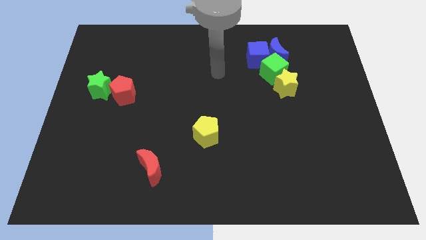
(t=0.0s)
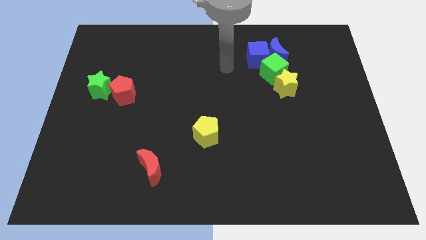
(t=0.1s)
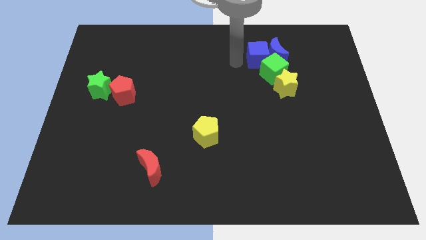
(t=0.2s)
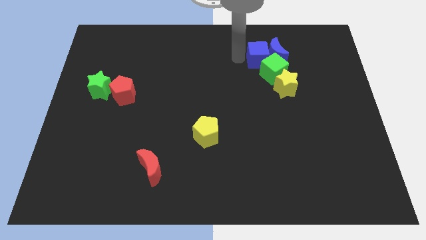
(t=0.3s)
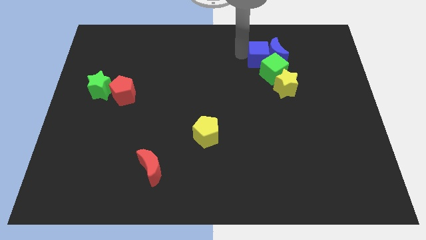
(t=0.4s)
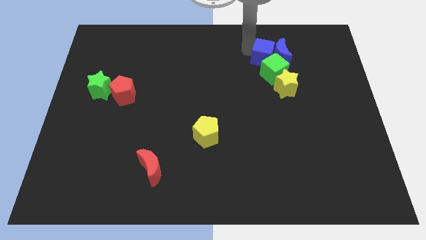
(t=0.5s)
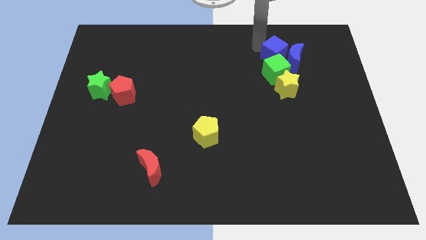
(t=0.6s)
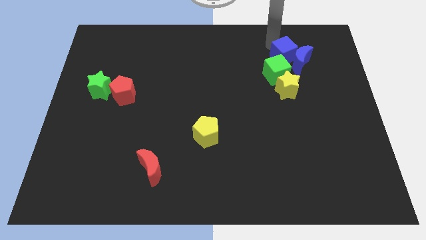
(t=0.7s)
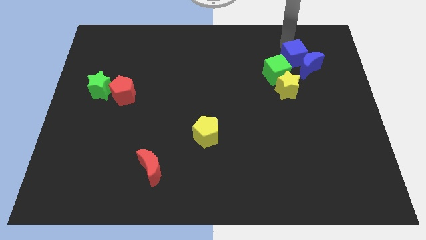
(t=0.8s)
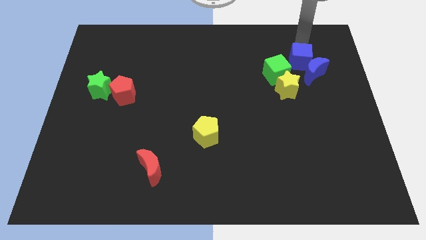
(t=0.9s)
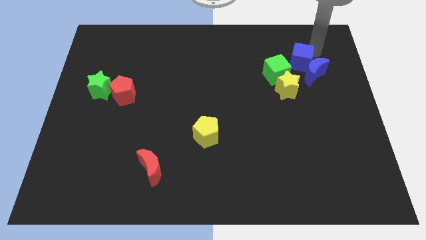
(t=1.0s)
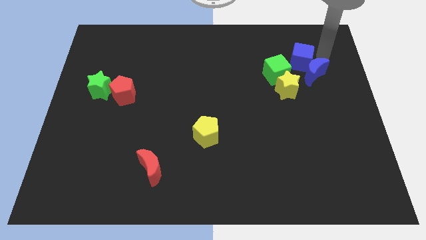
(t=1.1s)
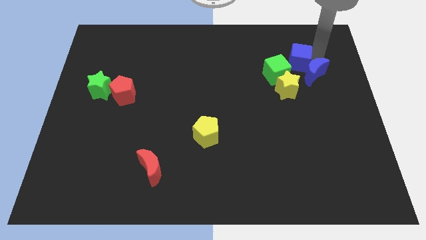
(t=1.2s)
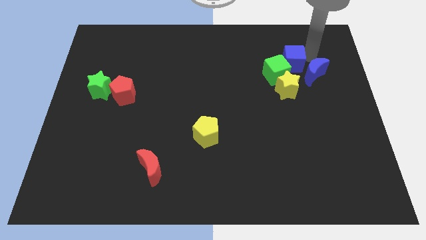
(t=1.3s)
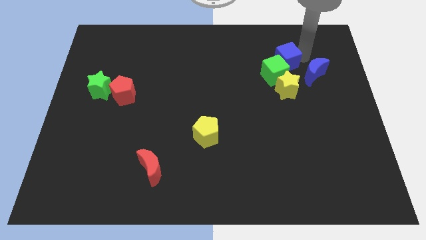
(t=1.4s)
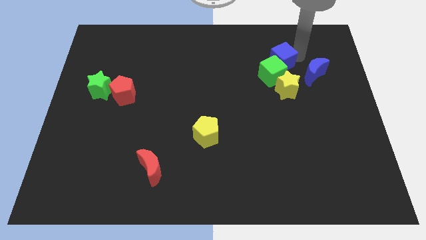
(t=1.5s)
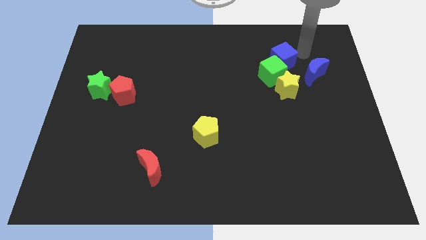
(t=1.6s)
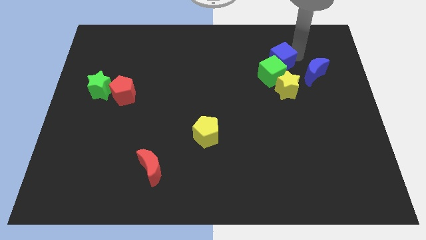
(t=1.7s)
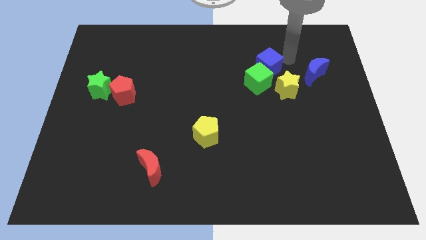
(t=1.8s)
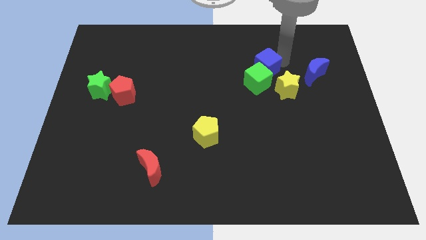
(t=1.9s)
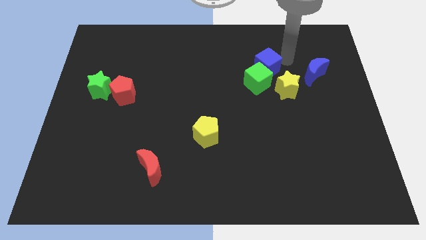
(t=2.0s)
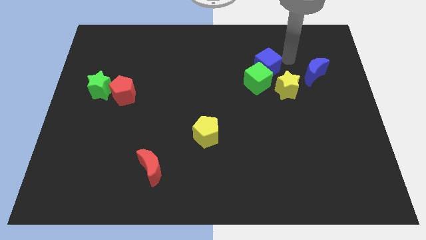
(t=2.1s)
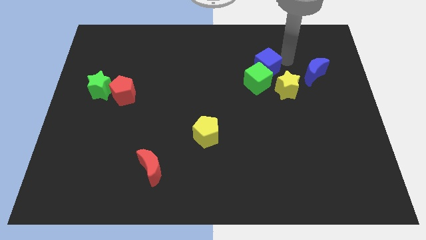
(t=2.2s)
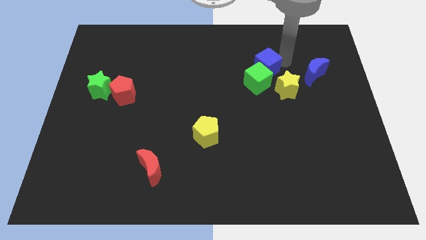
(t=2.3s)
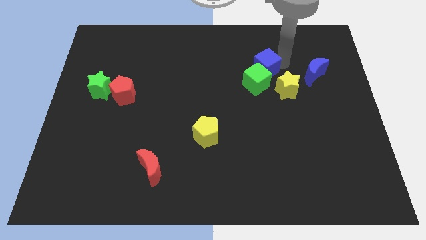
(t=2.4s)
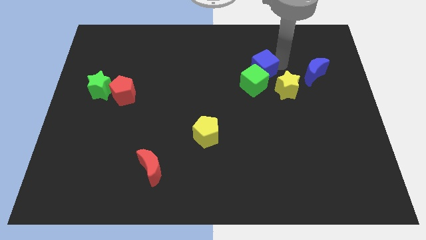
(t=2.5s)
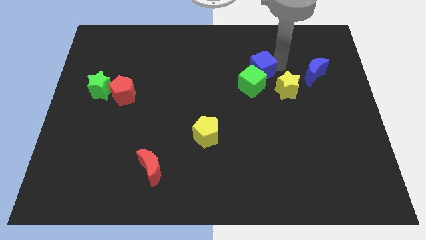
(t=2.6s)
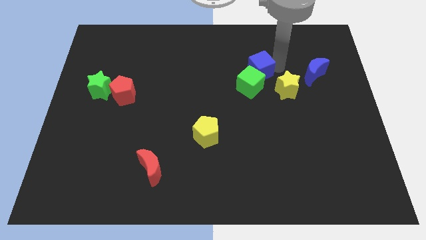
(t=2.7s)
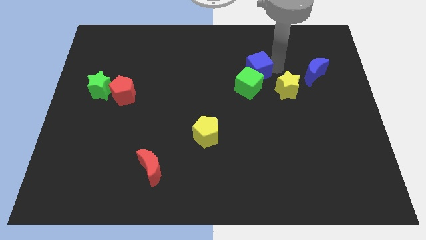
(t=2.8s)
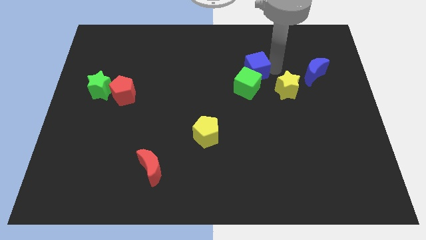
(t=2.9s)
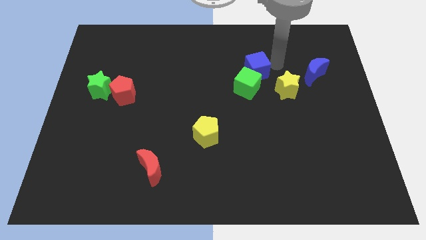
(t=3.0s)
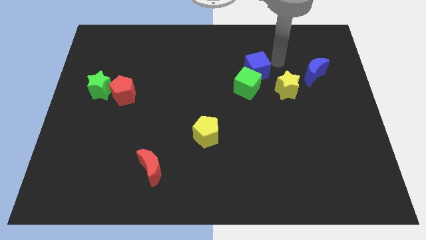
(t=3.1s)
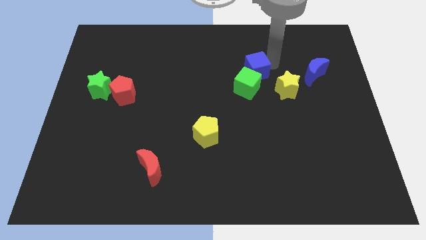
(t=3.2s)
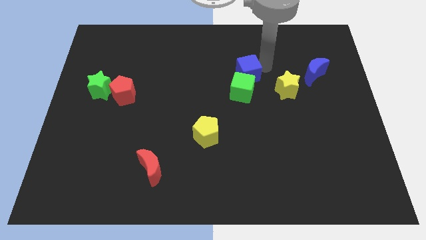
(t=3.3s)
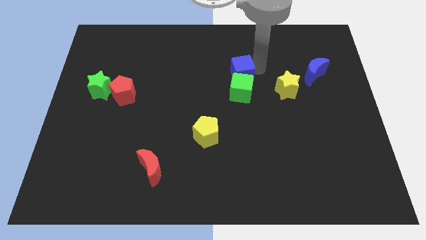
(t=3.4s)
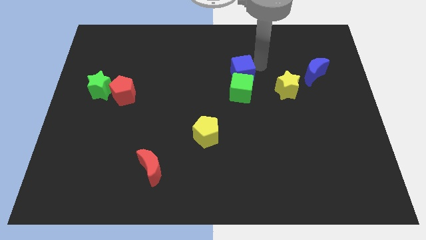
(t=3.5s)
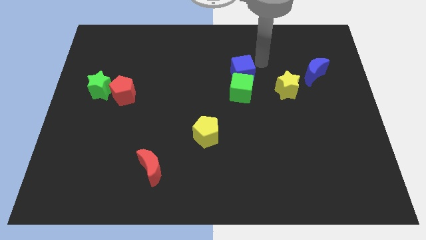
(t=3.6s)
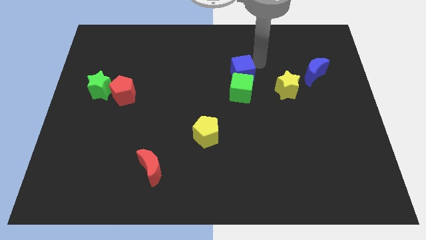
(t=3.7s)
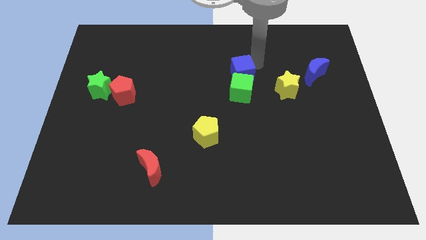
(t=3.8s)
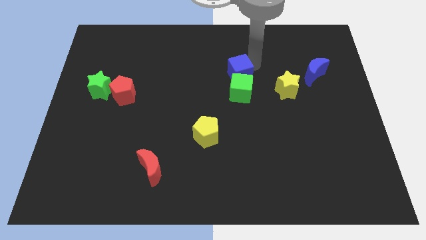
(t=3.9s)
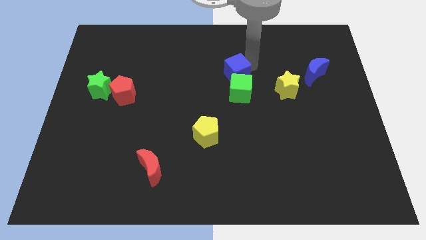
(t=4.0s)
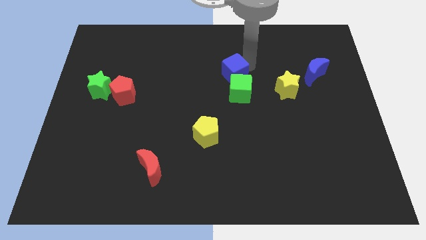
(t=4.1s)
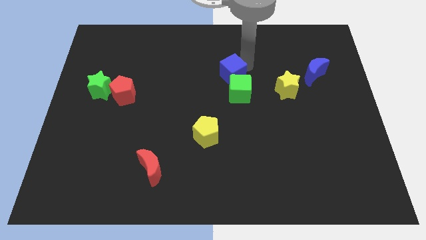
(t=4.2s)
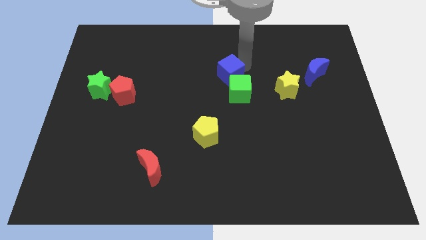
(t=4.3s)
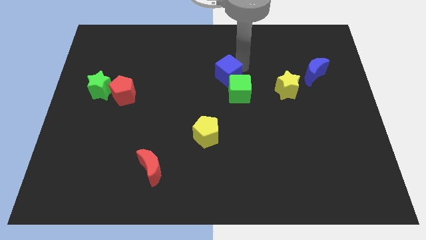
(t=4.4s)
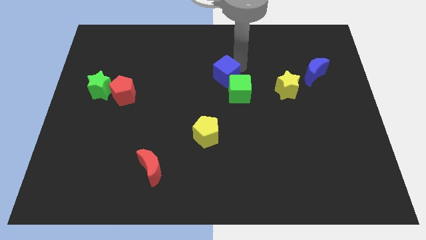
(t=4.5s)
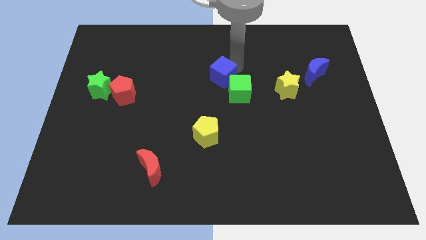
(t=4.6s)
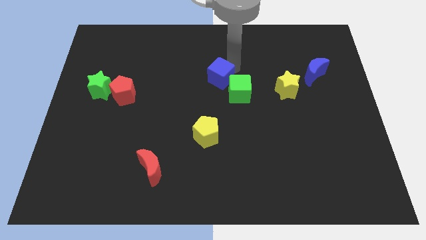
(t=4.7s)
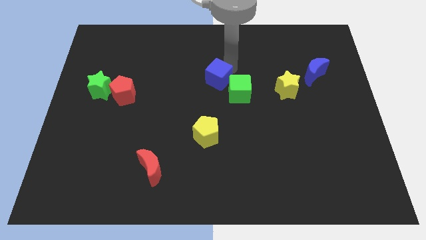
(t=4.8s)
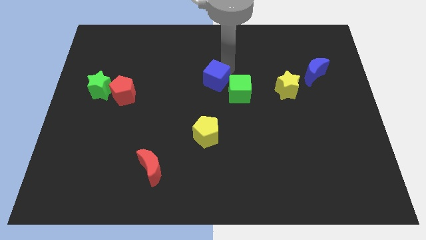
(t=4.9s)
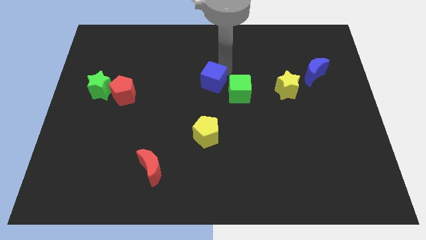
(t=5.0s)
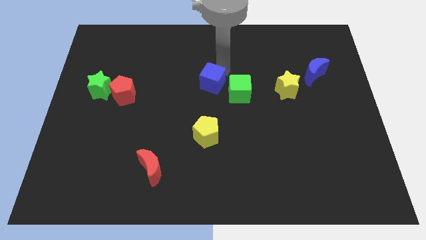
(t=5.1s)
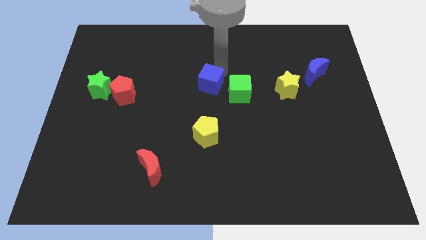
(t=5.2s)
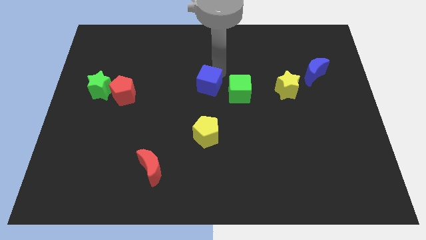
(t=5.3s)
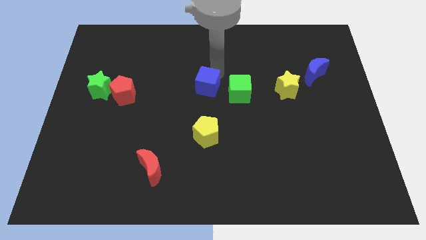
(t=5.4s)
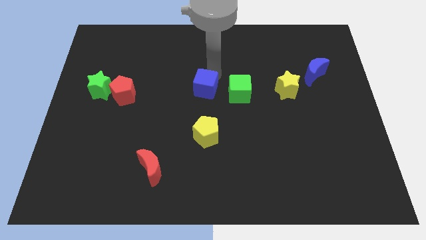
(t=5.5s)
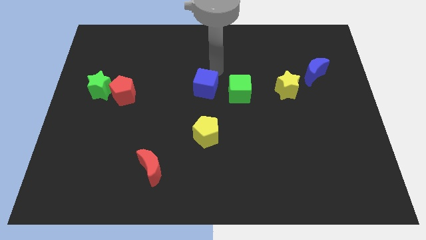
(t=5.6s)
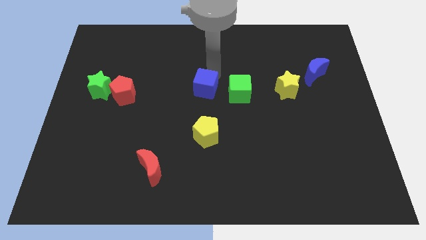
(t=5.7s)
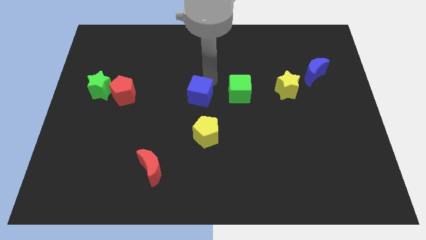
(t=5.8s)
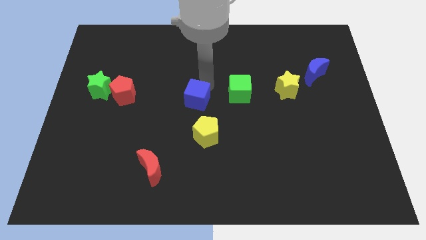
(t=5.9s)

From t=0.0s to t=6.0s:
slide the blue cube diagonally downwards and left

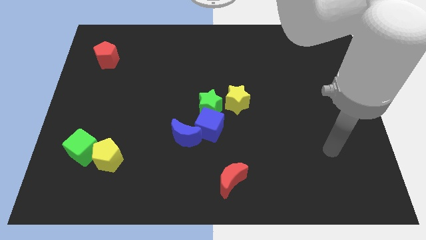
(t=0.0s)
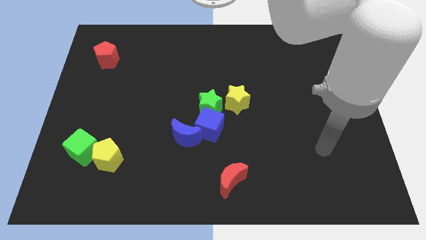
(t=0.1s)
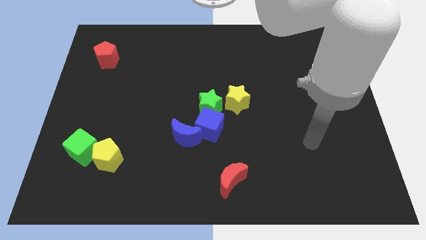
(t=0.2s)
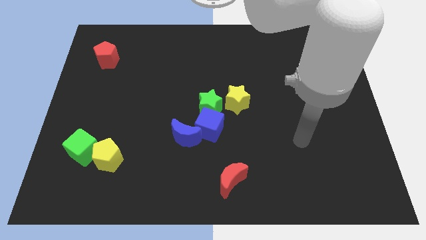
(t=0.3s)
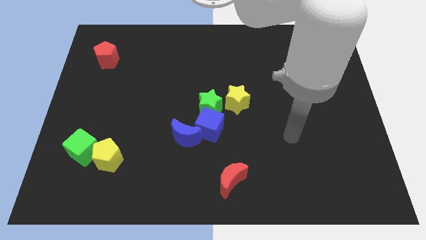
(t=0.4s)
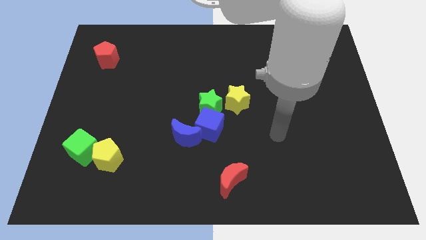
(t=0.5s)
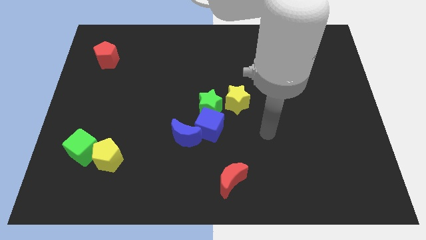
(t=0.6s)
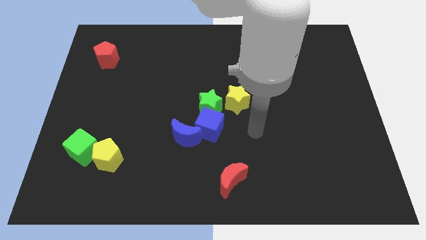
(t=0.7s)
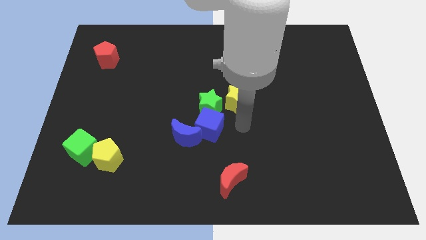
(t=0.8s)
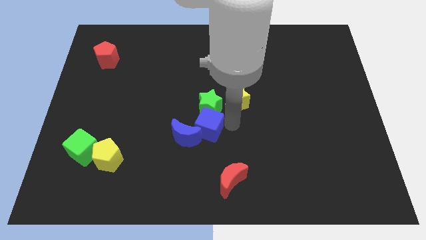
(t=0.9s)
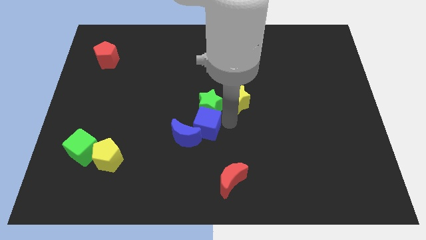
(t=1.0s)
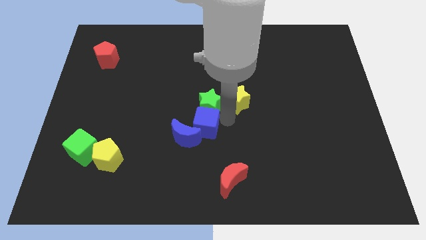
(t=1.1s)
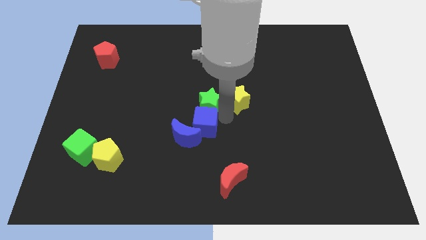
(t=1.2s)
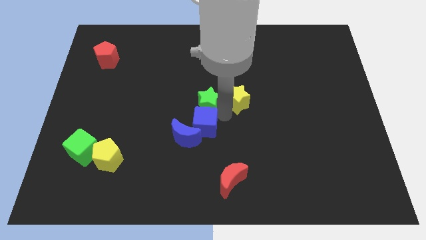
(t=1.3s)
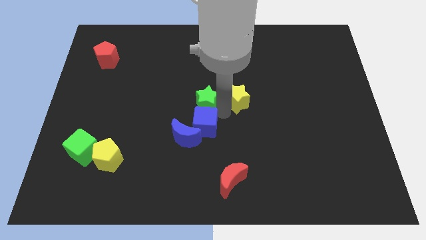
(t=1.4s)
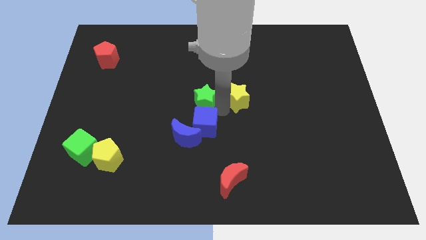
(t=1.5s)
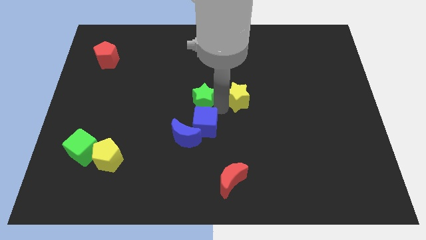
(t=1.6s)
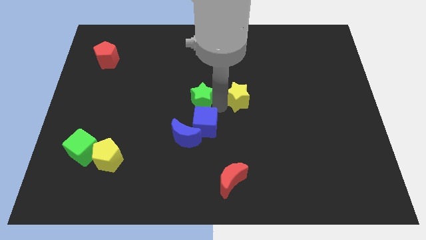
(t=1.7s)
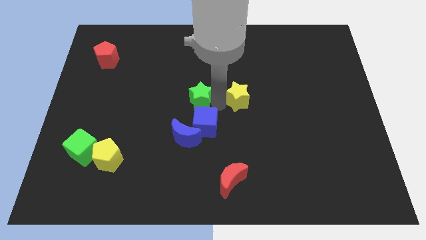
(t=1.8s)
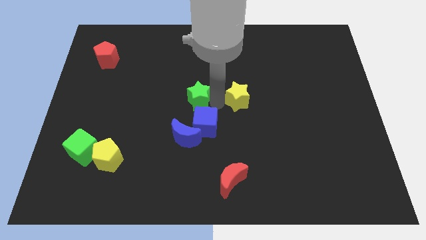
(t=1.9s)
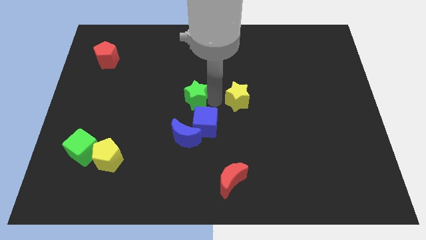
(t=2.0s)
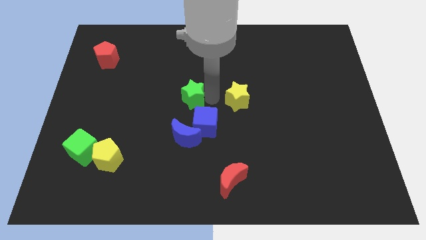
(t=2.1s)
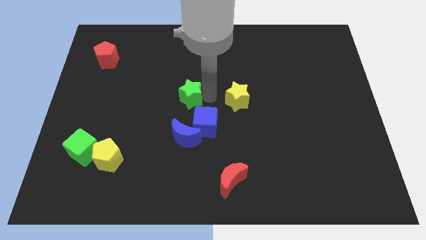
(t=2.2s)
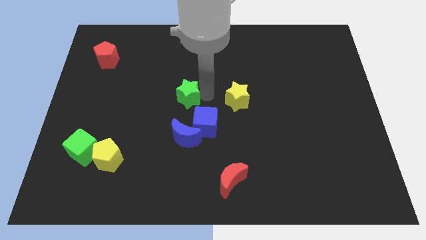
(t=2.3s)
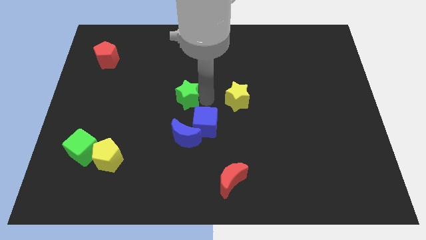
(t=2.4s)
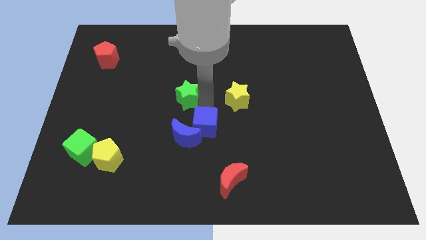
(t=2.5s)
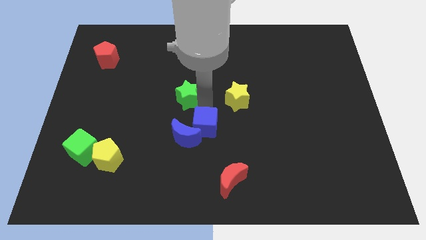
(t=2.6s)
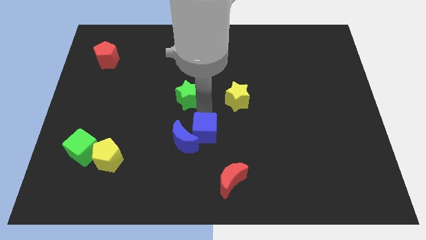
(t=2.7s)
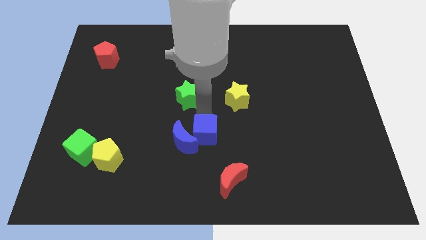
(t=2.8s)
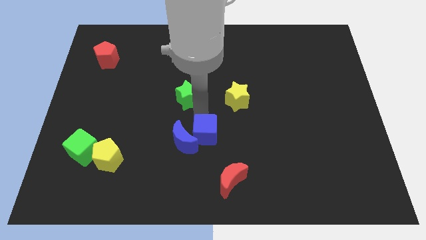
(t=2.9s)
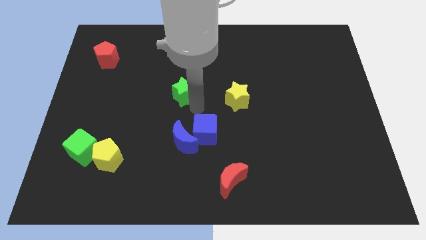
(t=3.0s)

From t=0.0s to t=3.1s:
slightly push the green star up and to the left diagonally
